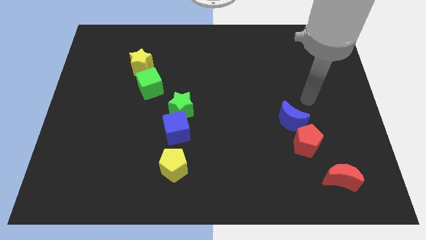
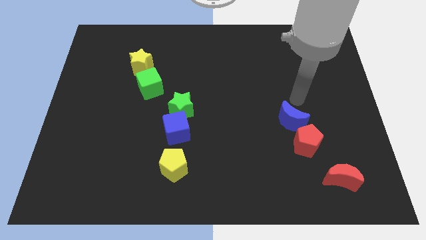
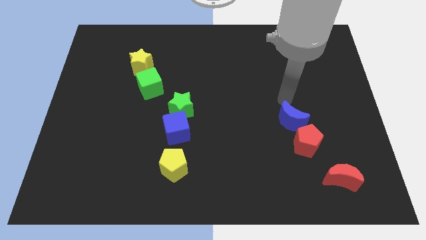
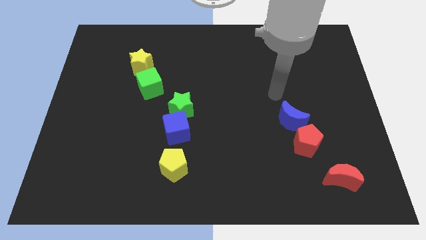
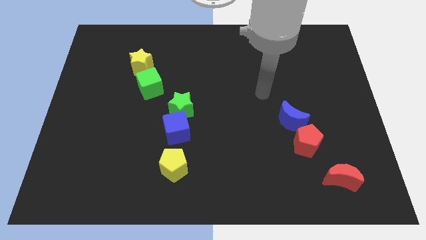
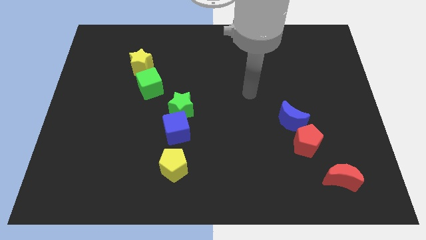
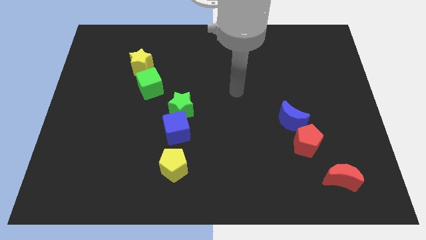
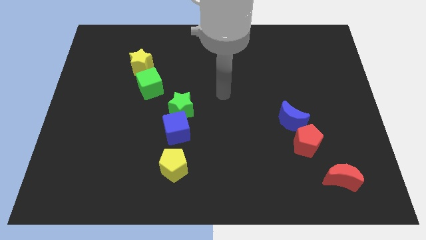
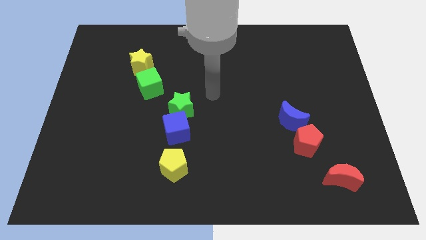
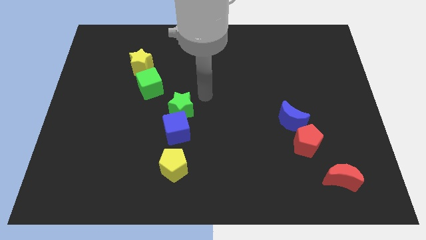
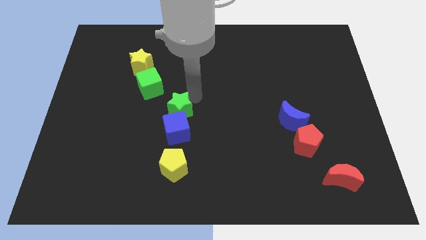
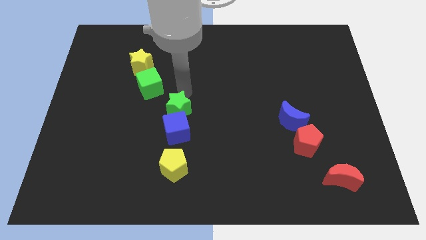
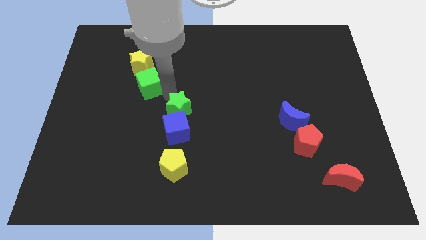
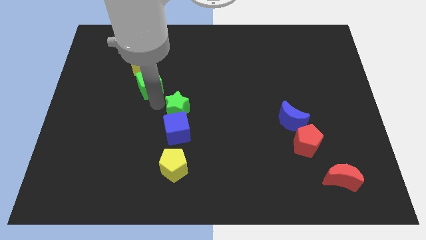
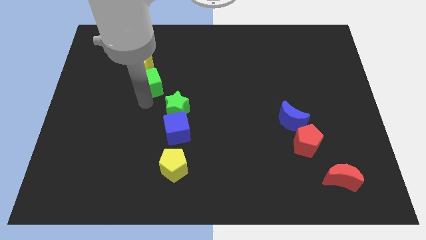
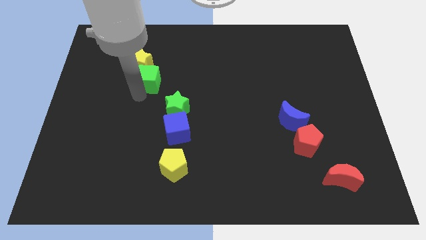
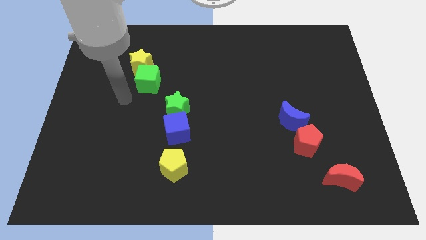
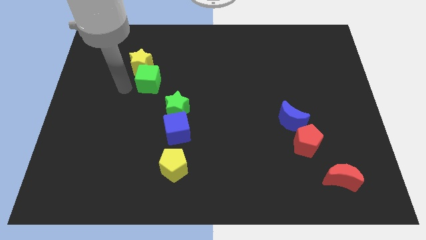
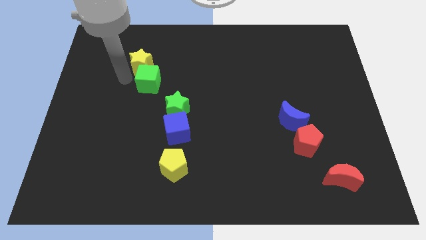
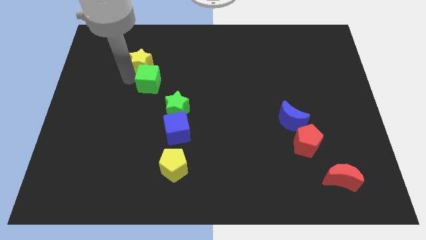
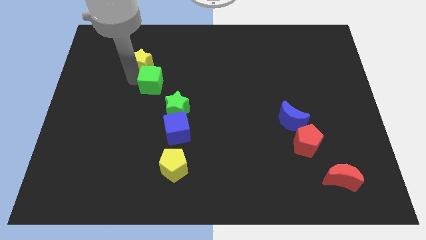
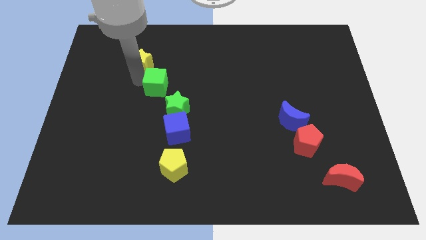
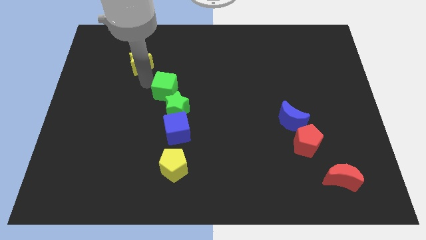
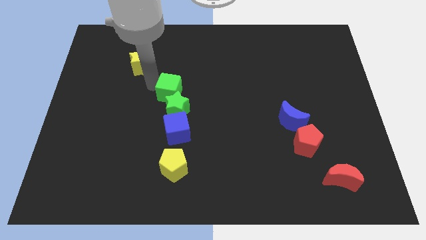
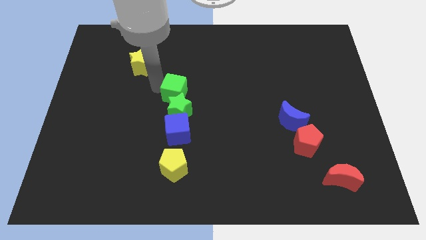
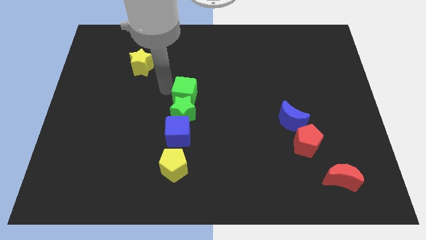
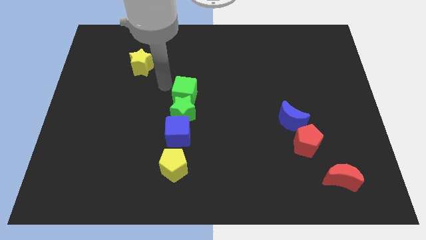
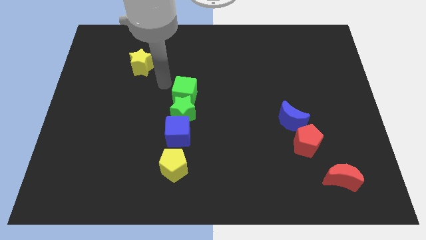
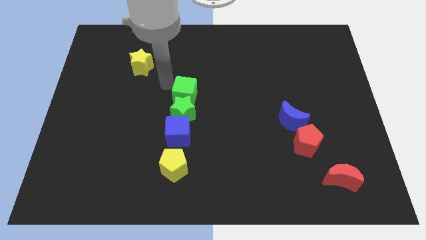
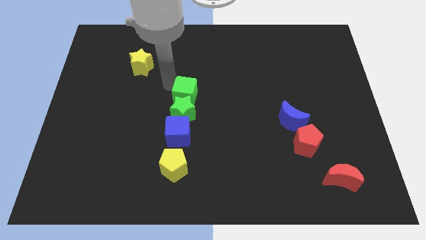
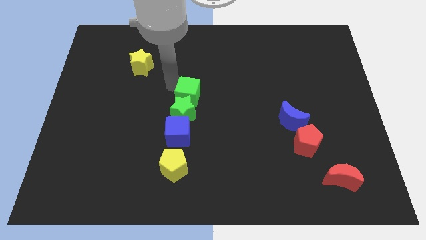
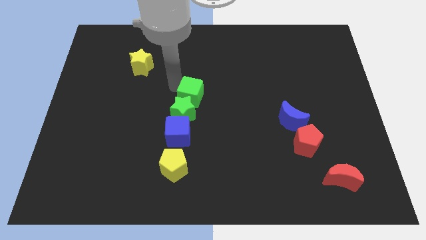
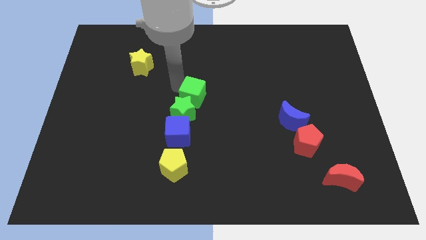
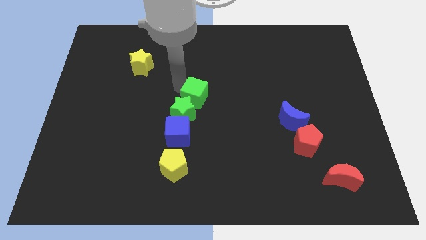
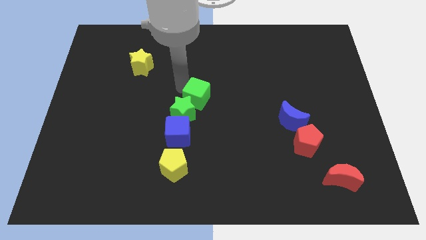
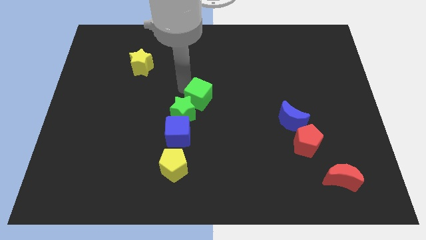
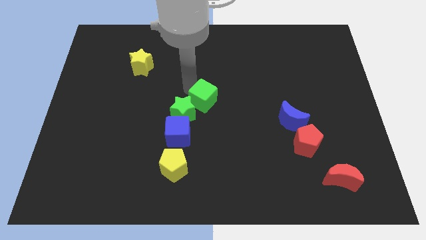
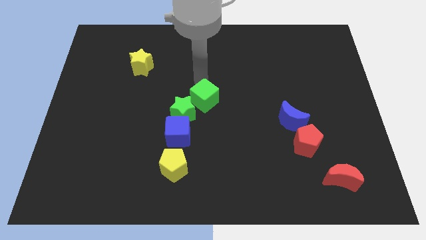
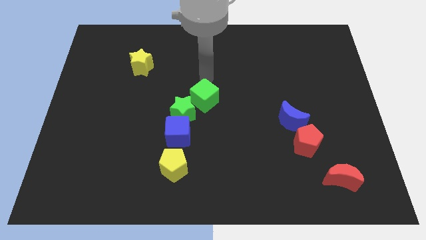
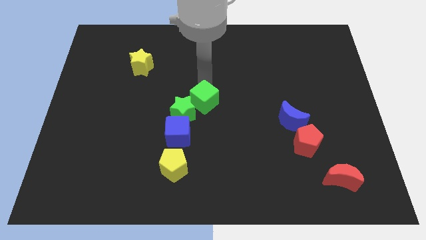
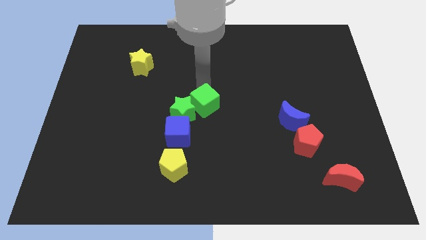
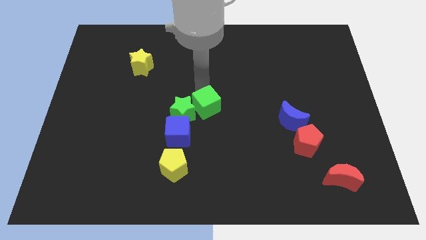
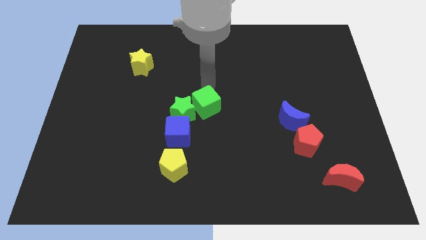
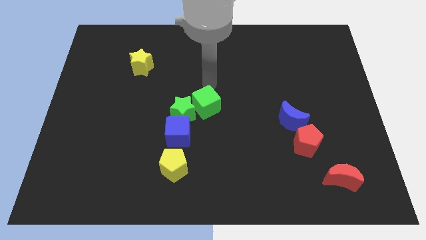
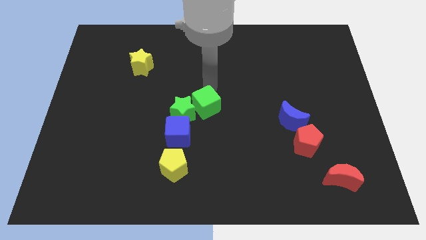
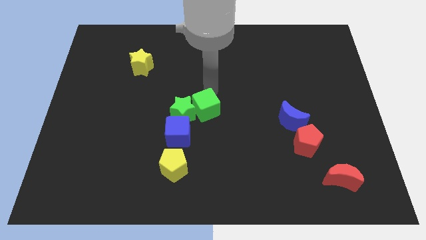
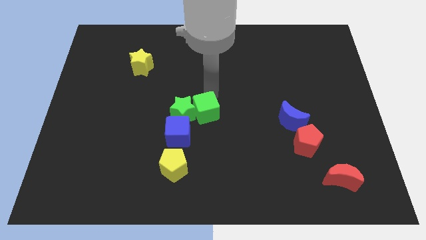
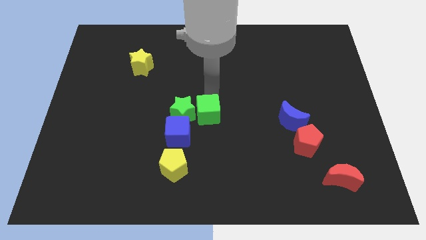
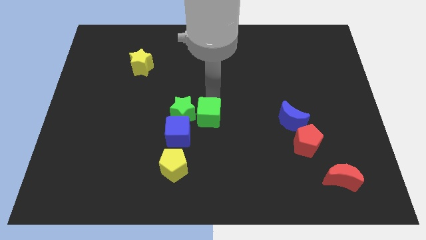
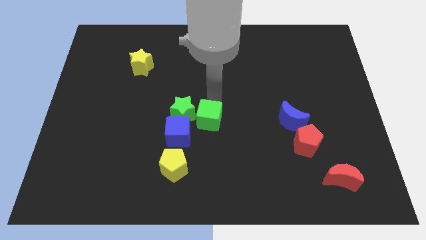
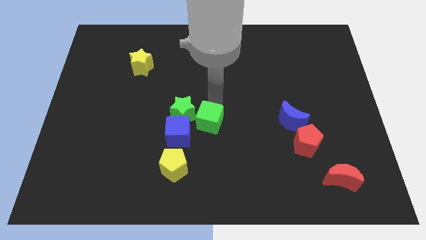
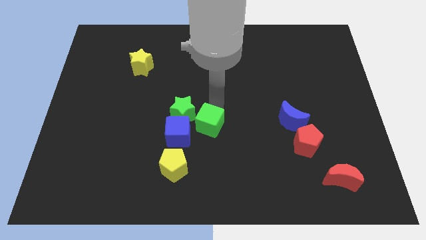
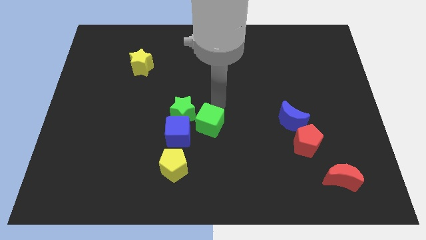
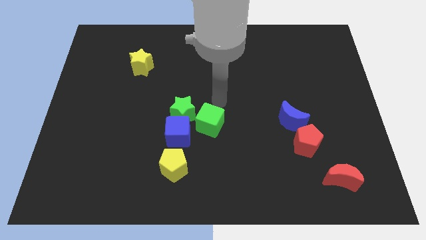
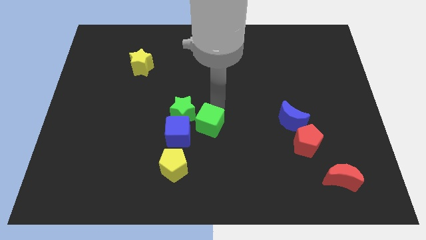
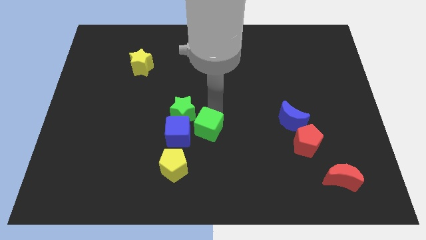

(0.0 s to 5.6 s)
put the green cube to the top right side of the yellow pentagon

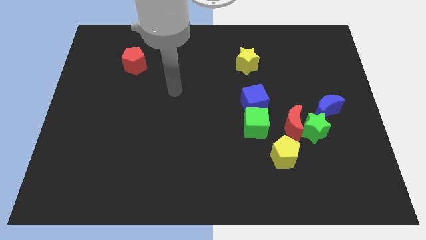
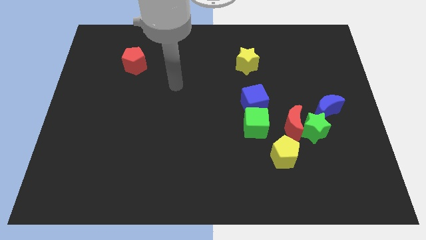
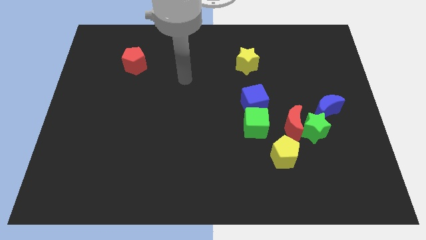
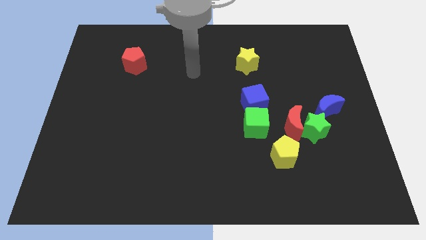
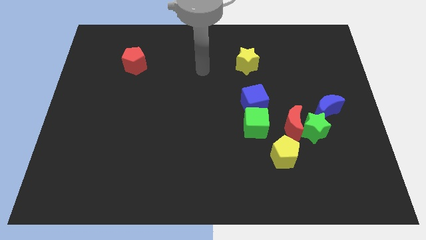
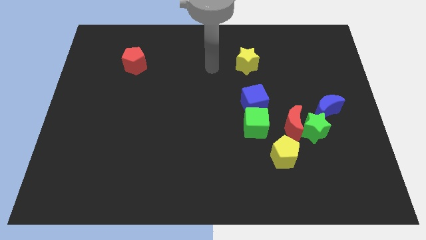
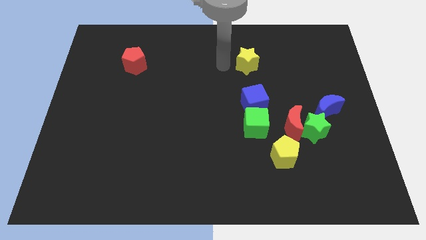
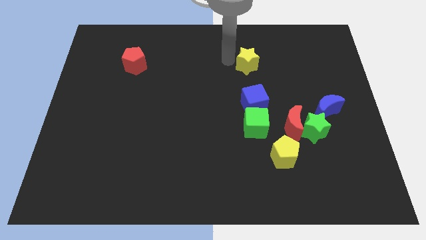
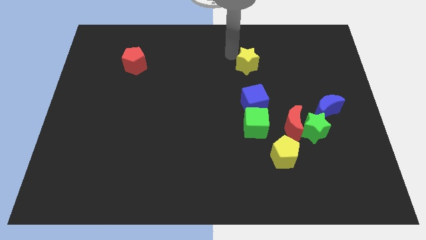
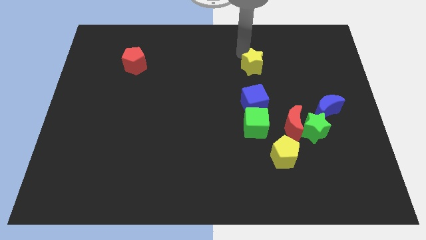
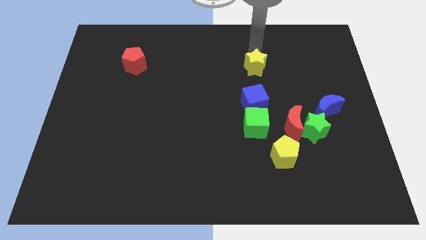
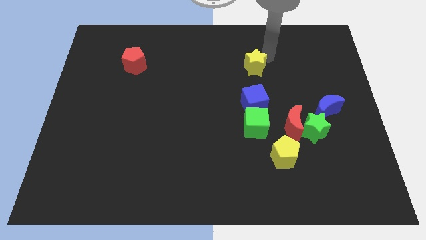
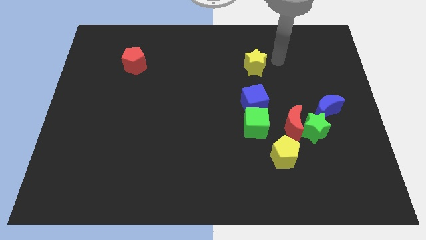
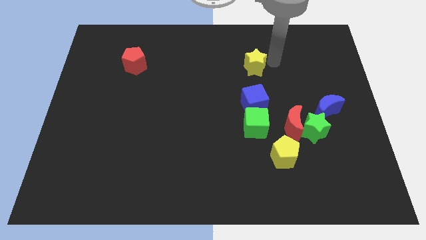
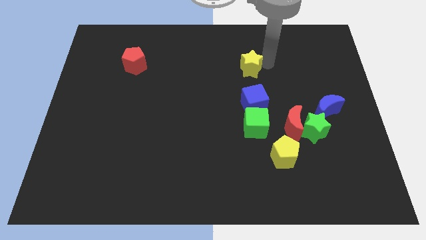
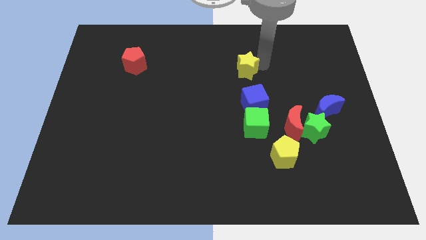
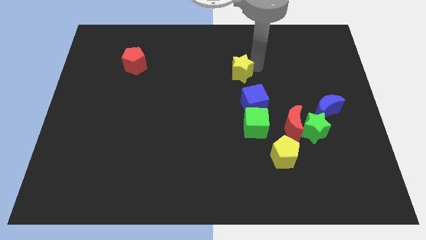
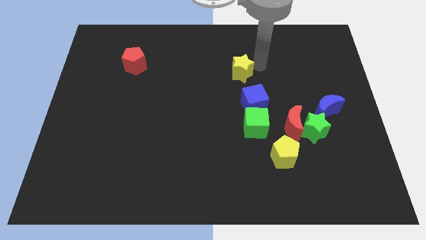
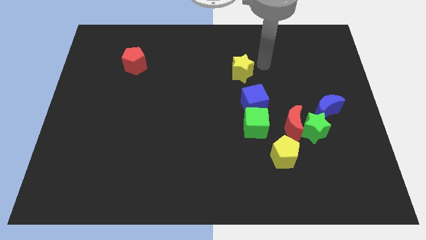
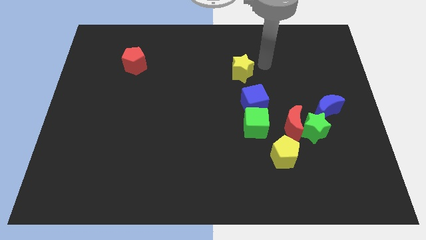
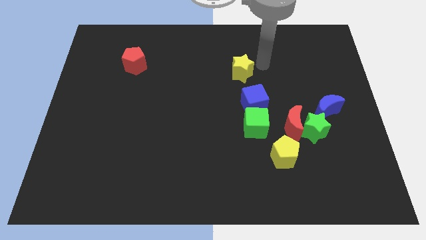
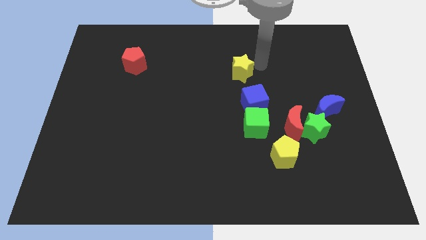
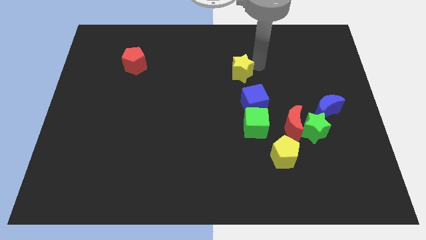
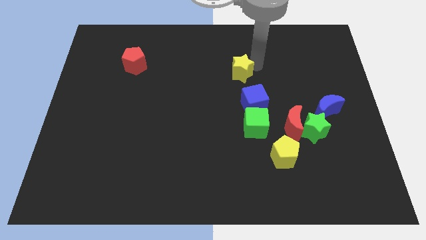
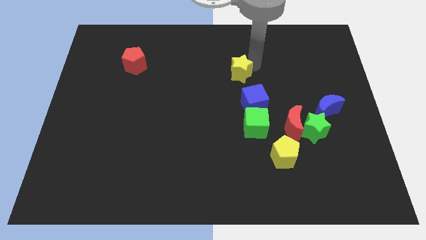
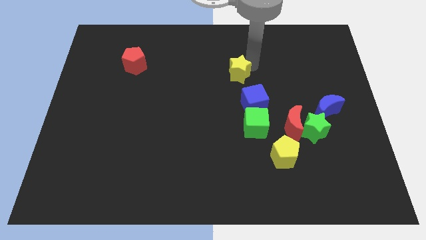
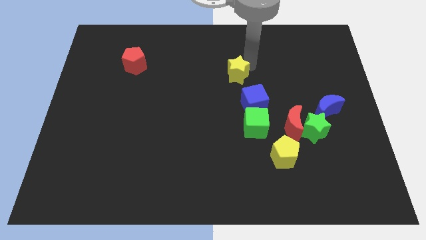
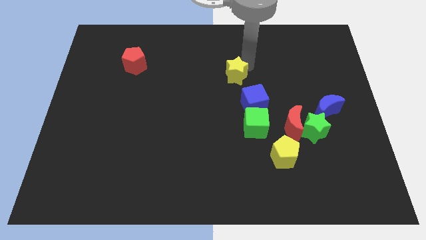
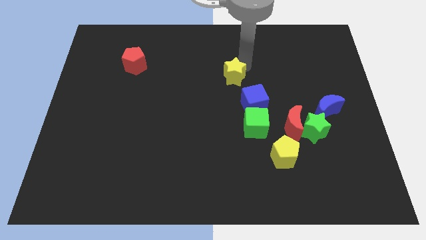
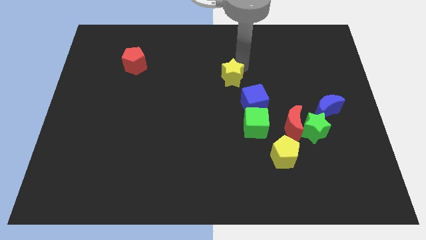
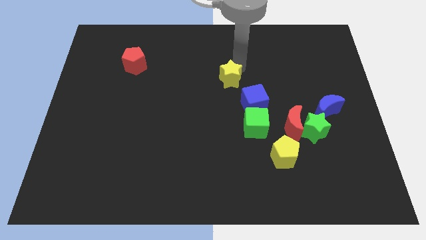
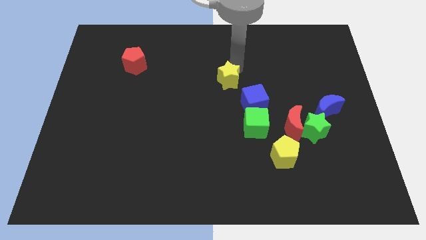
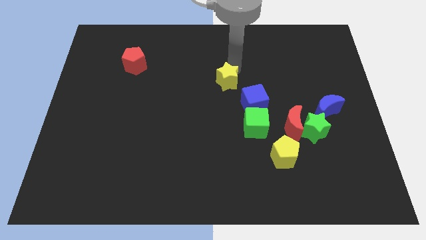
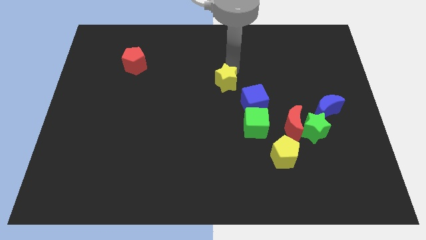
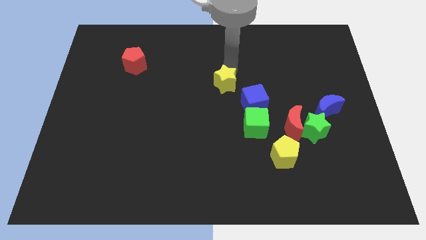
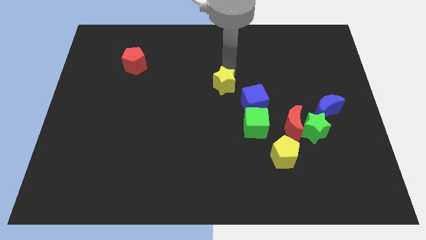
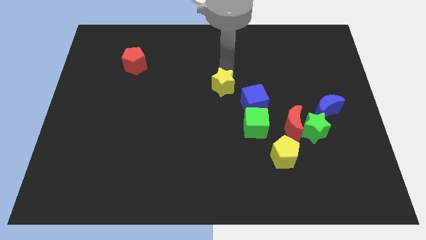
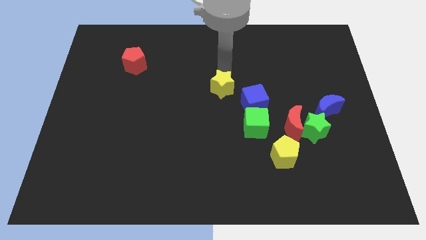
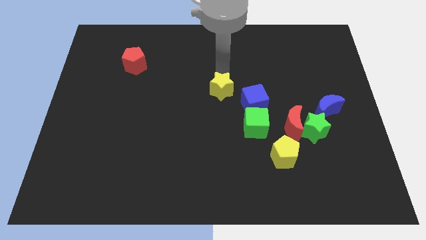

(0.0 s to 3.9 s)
put the yellow star to the left side of the blue cube
